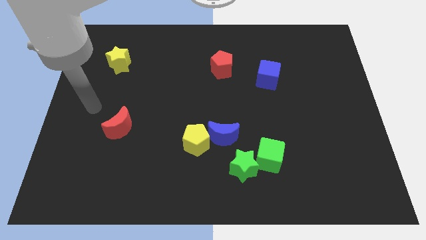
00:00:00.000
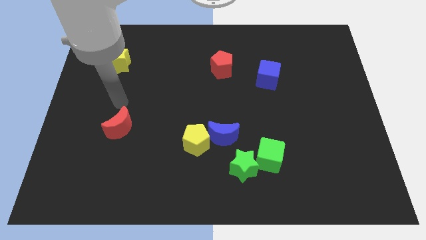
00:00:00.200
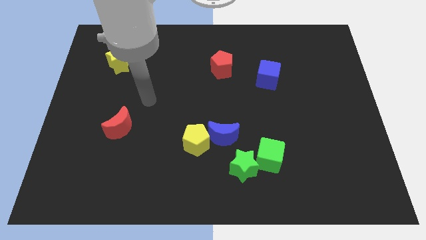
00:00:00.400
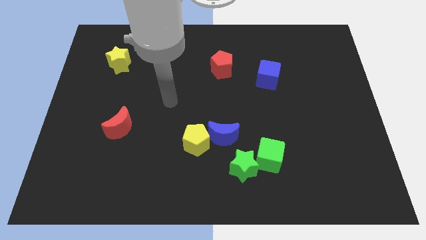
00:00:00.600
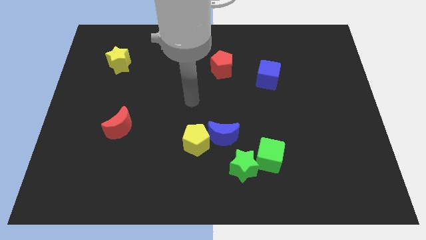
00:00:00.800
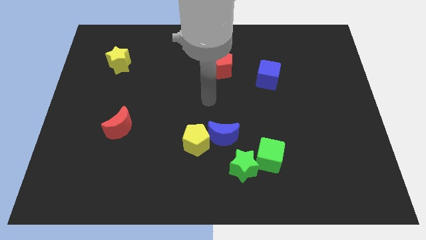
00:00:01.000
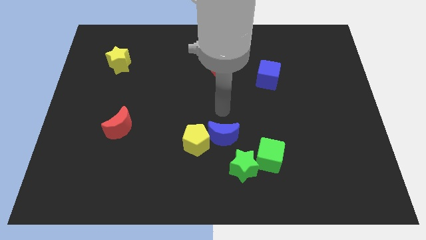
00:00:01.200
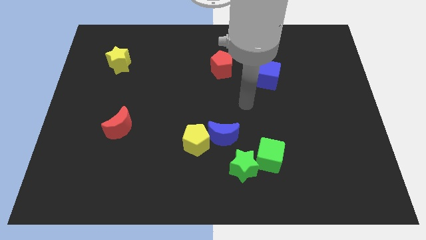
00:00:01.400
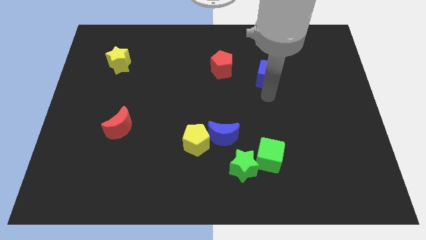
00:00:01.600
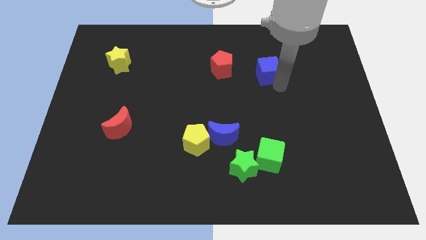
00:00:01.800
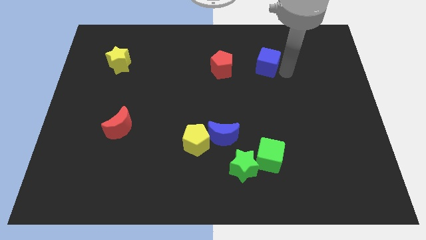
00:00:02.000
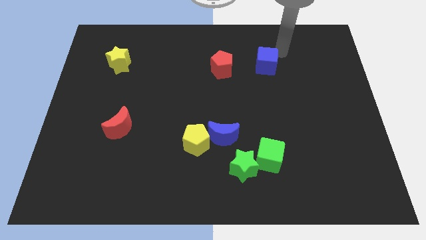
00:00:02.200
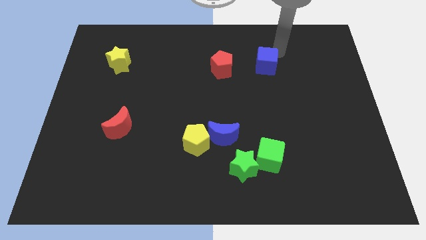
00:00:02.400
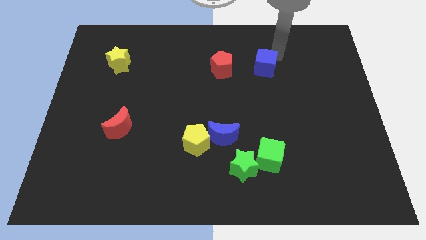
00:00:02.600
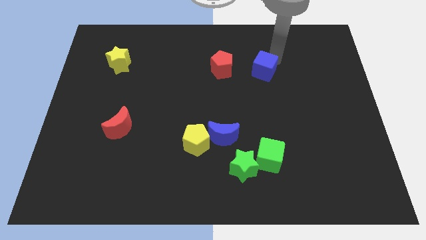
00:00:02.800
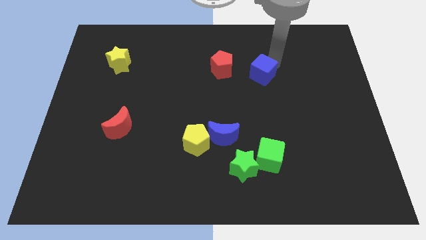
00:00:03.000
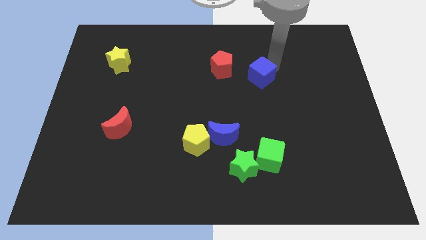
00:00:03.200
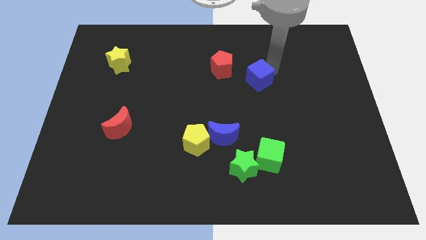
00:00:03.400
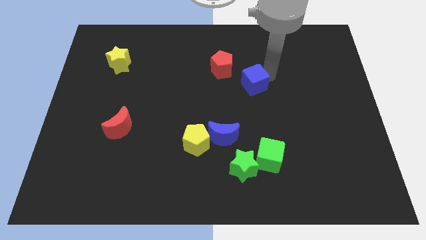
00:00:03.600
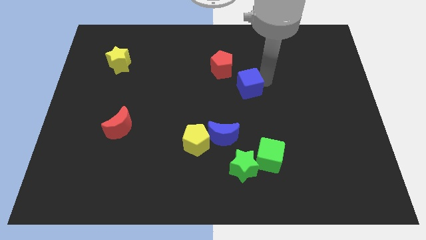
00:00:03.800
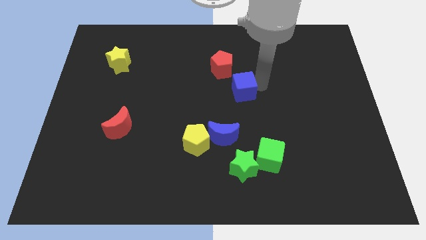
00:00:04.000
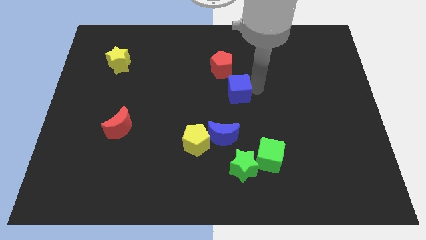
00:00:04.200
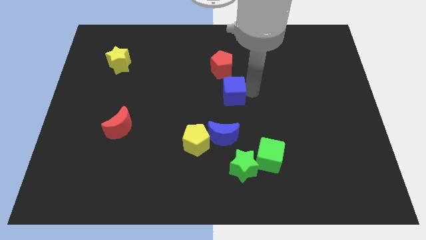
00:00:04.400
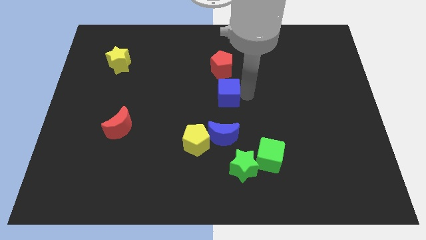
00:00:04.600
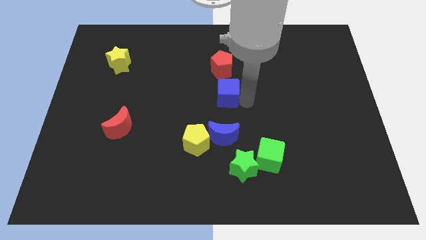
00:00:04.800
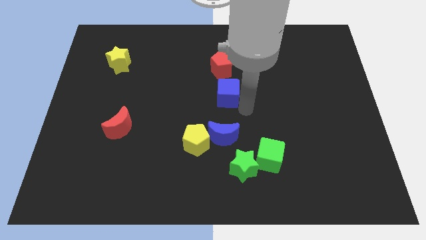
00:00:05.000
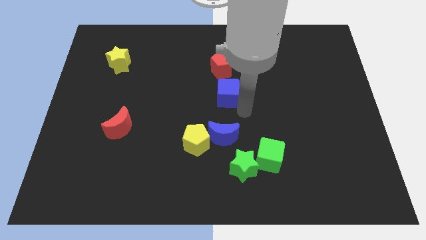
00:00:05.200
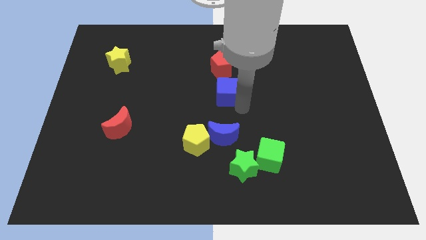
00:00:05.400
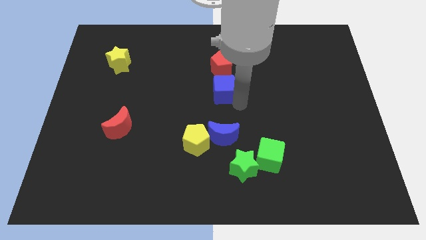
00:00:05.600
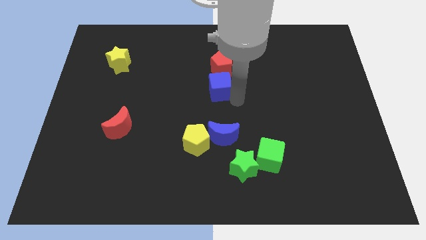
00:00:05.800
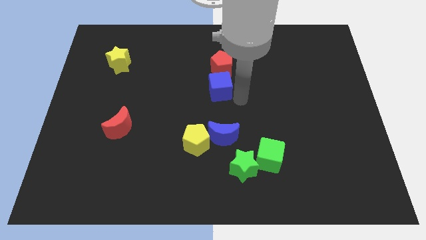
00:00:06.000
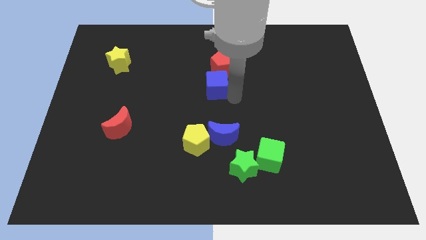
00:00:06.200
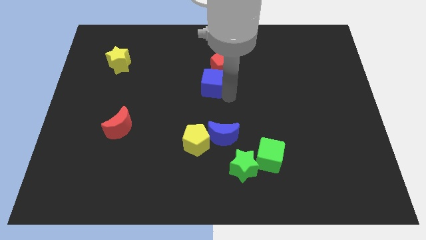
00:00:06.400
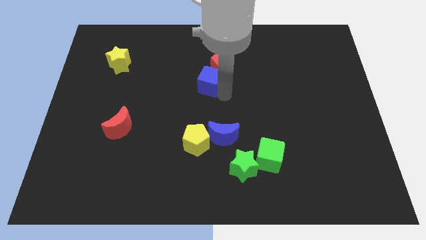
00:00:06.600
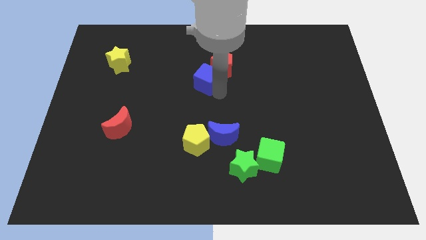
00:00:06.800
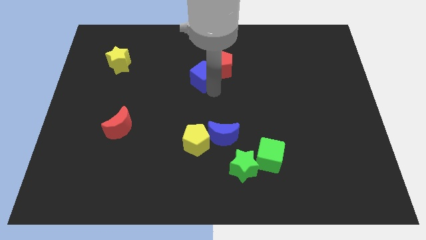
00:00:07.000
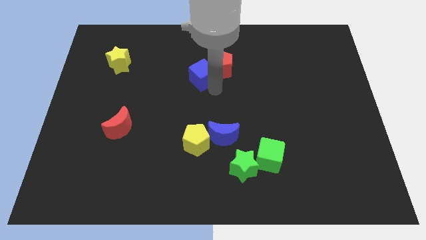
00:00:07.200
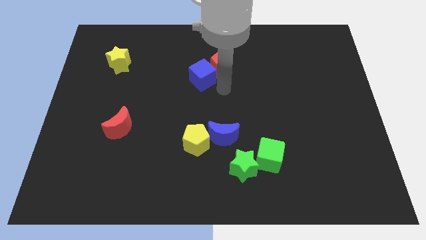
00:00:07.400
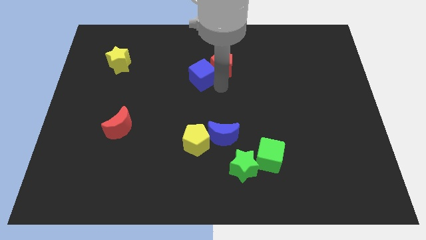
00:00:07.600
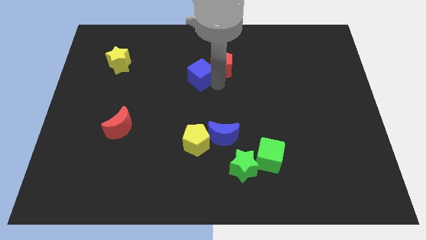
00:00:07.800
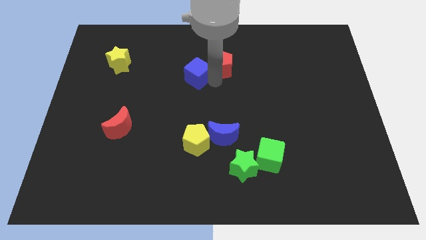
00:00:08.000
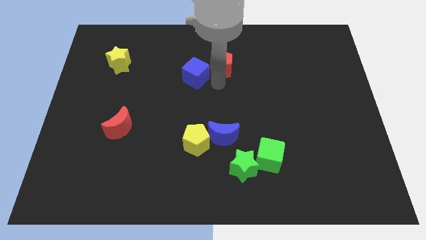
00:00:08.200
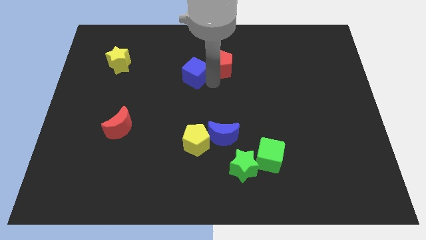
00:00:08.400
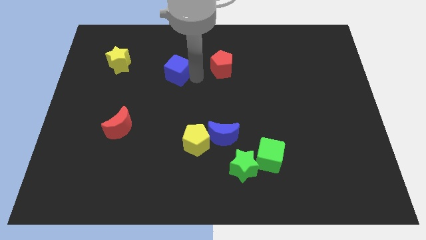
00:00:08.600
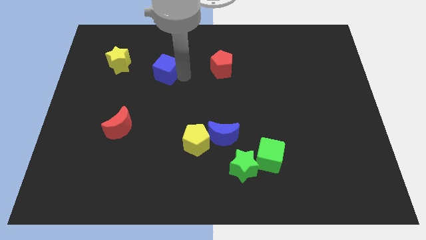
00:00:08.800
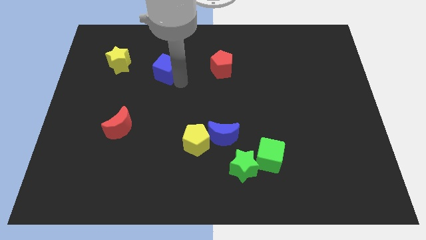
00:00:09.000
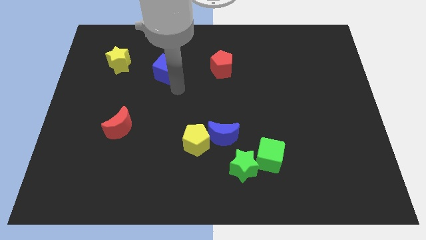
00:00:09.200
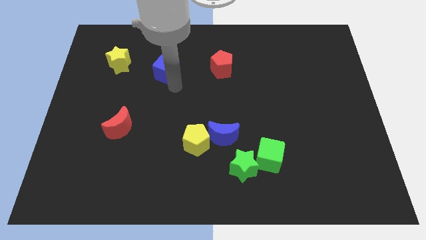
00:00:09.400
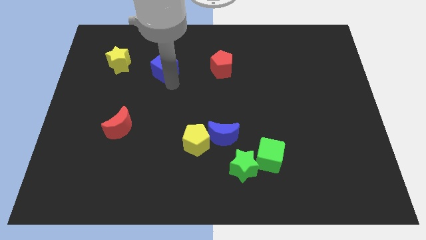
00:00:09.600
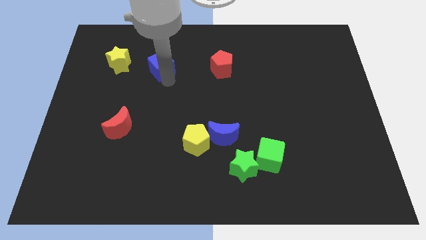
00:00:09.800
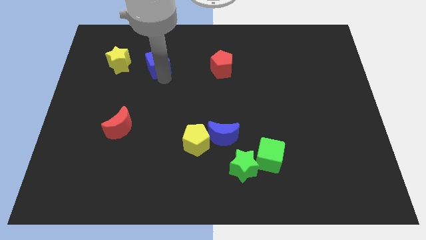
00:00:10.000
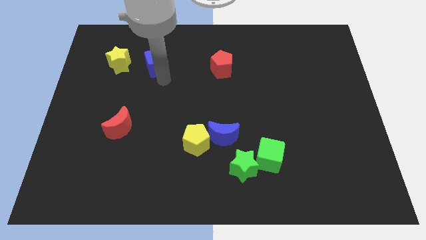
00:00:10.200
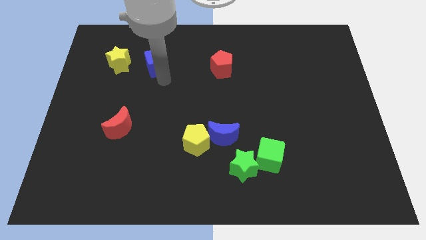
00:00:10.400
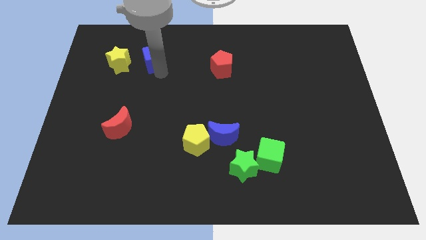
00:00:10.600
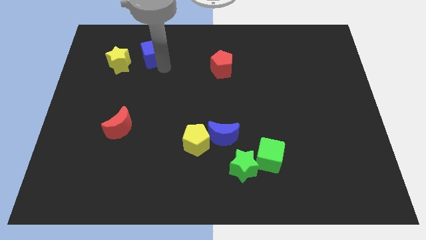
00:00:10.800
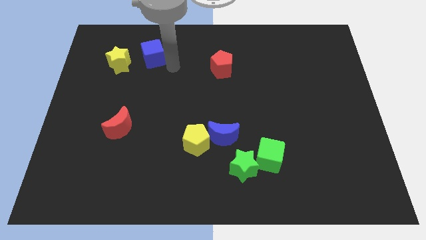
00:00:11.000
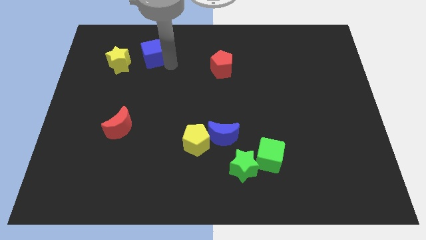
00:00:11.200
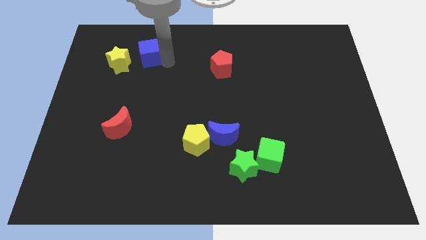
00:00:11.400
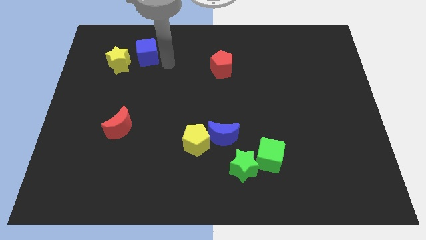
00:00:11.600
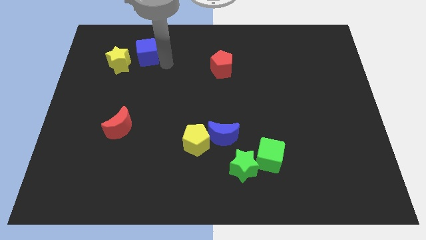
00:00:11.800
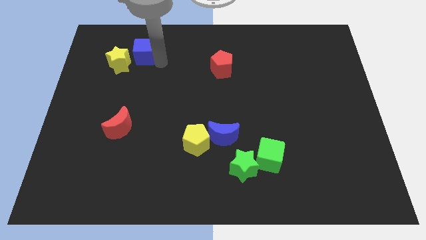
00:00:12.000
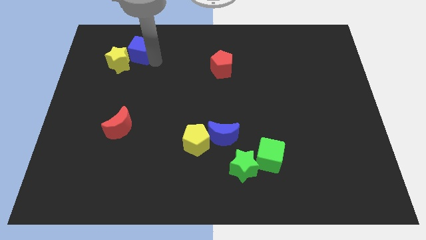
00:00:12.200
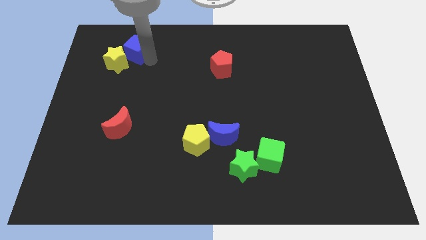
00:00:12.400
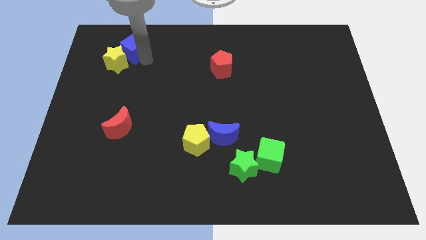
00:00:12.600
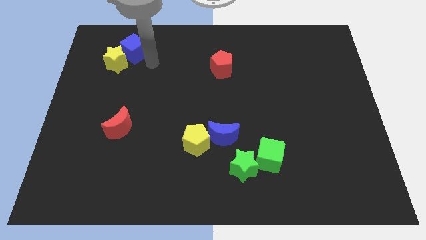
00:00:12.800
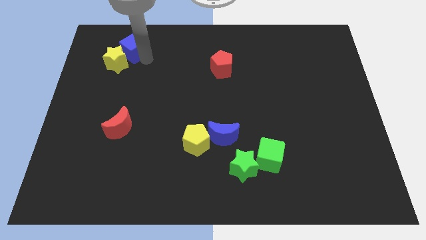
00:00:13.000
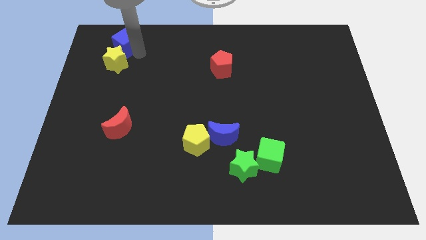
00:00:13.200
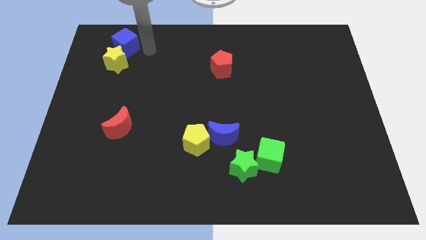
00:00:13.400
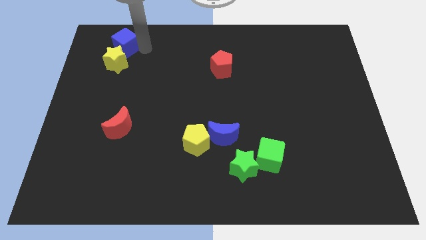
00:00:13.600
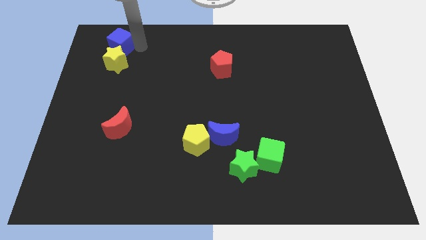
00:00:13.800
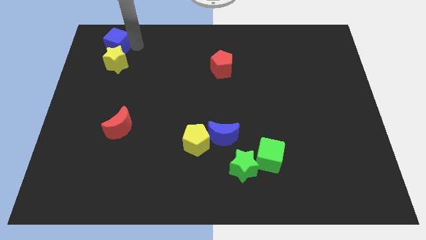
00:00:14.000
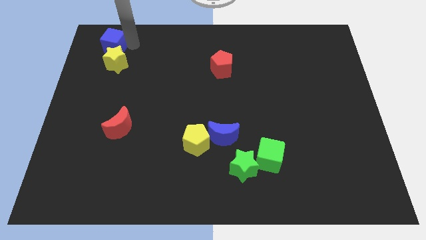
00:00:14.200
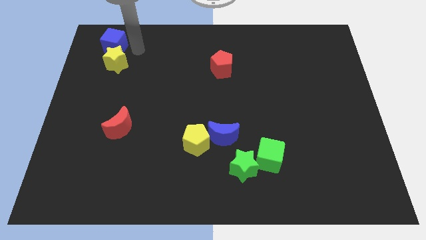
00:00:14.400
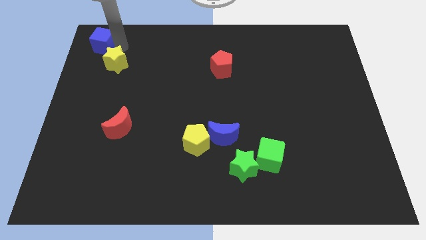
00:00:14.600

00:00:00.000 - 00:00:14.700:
put the blue cube to the top left
